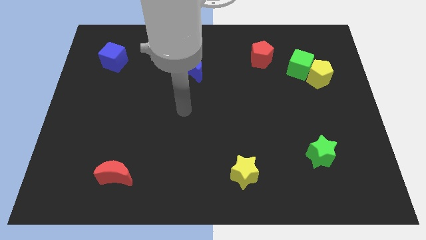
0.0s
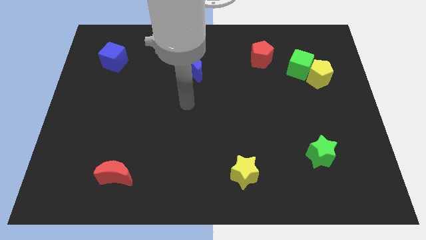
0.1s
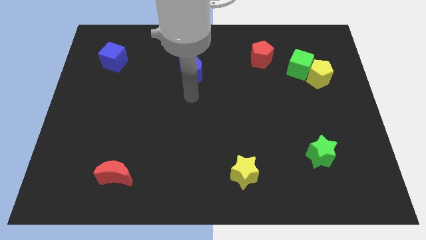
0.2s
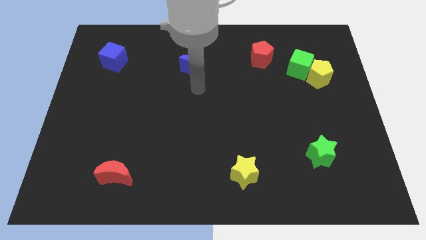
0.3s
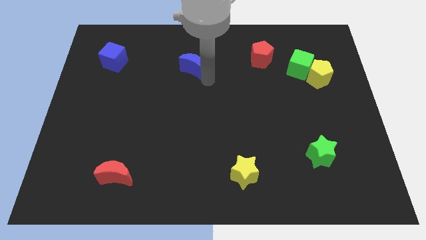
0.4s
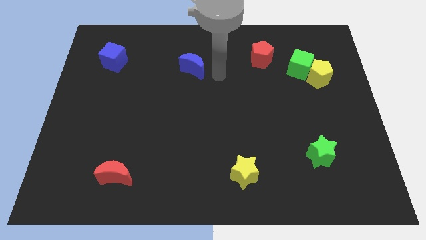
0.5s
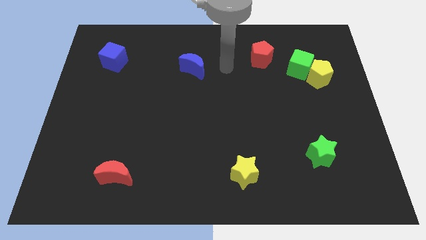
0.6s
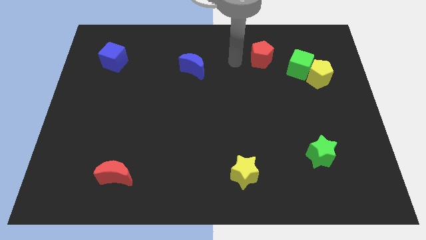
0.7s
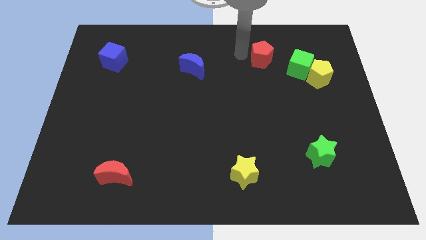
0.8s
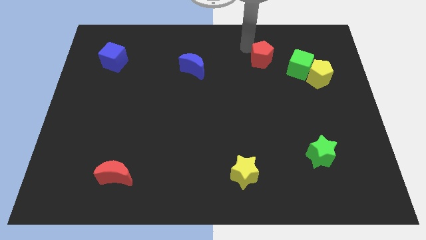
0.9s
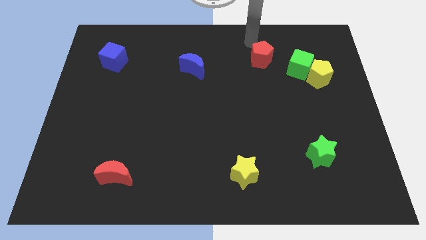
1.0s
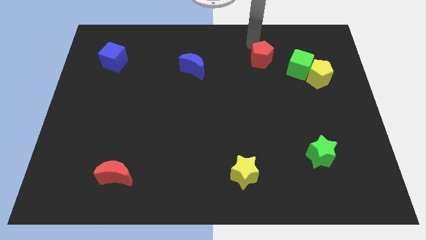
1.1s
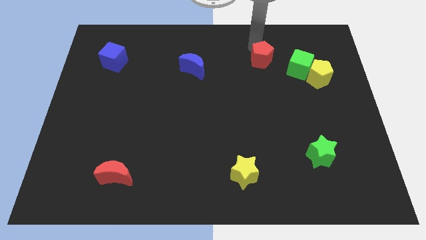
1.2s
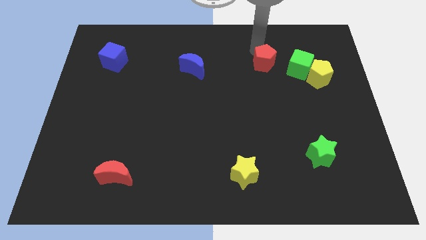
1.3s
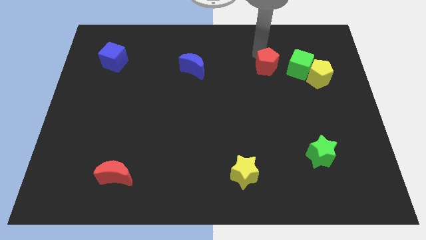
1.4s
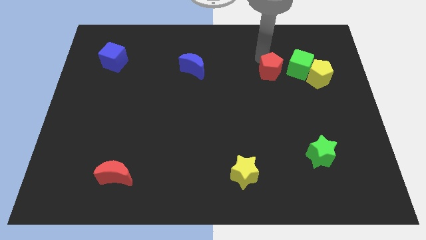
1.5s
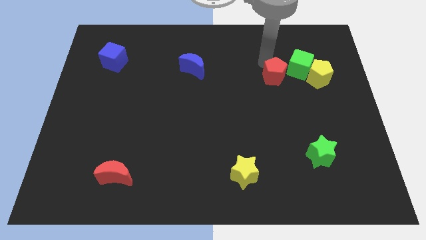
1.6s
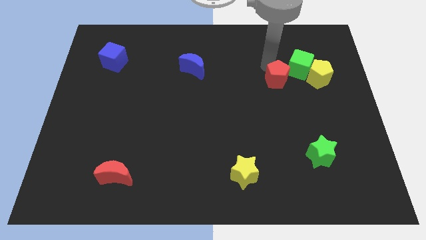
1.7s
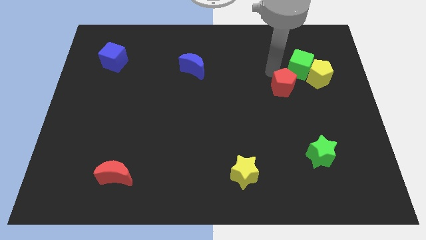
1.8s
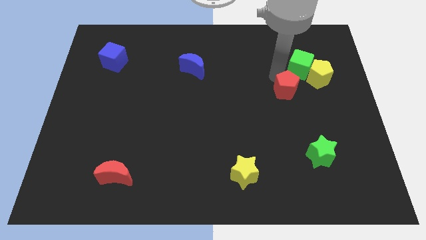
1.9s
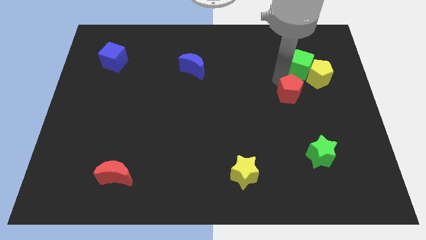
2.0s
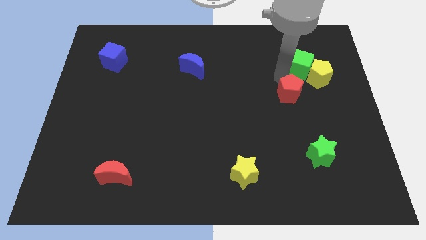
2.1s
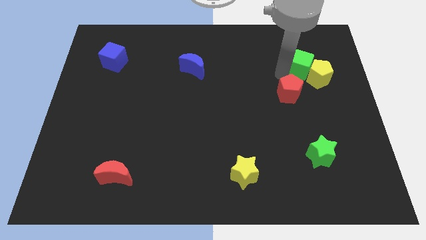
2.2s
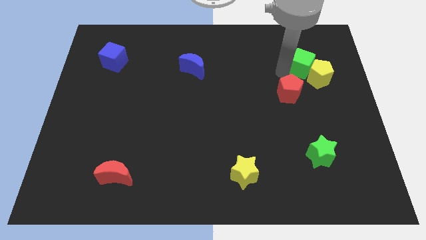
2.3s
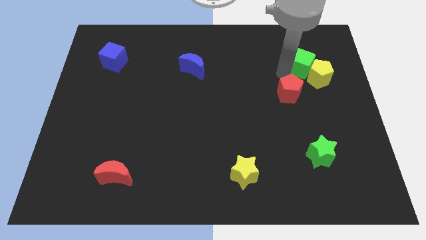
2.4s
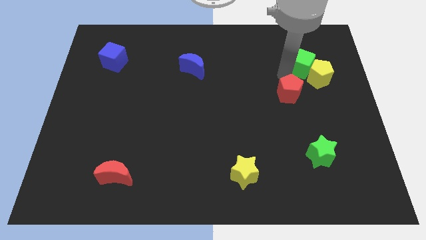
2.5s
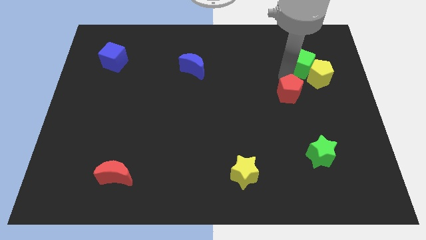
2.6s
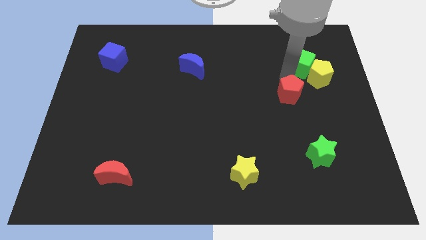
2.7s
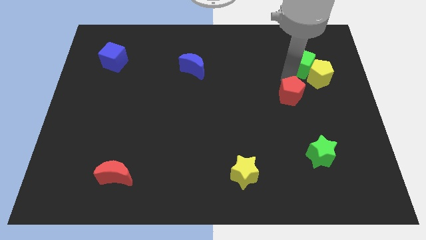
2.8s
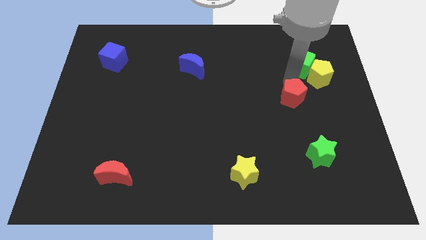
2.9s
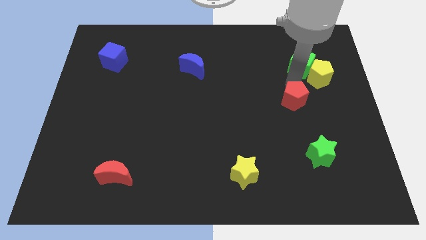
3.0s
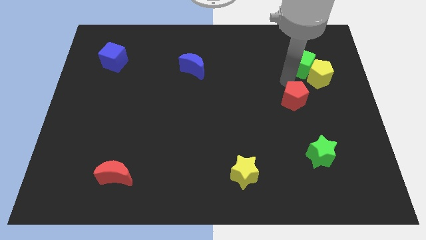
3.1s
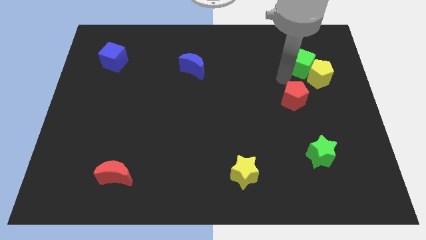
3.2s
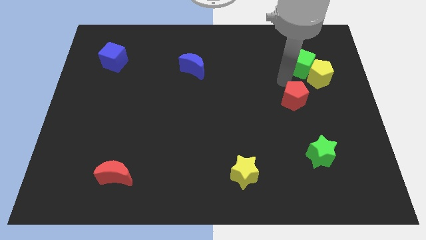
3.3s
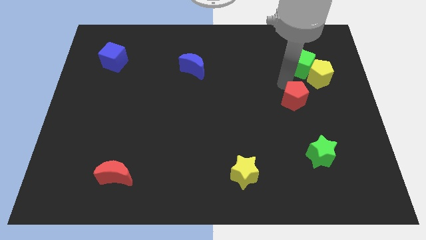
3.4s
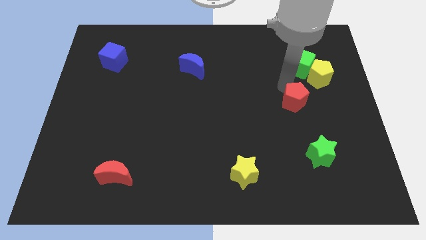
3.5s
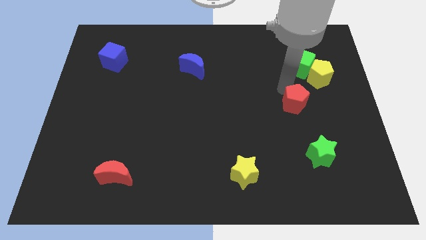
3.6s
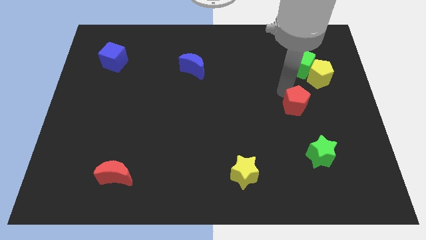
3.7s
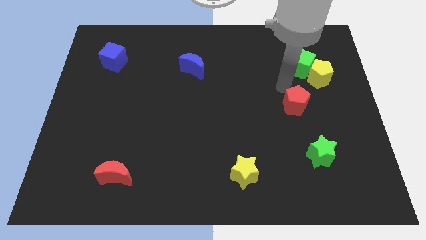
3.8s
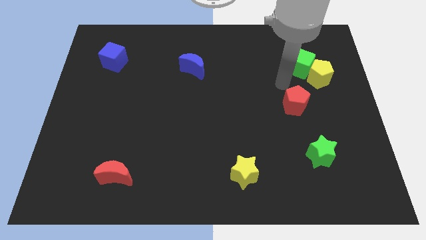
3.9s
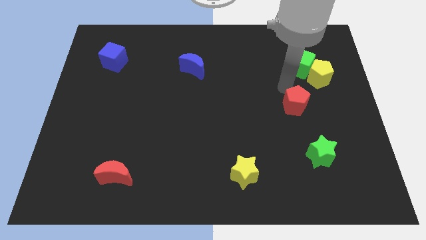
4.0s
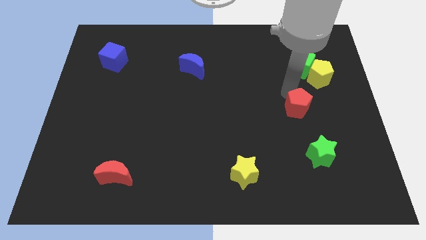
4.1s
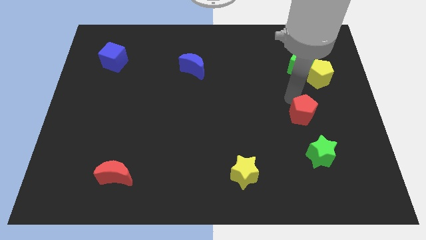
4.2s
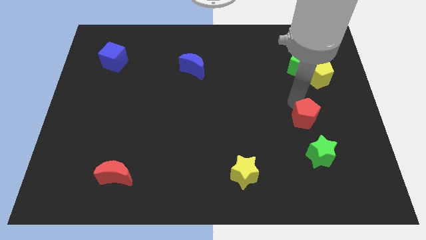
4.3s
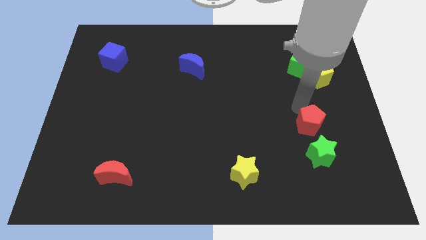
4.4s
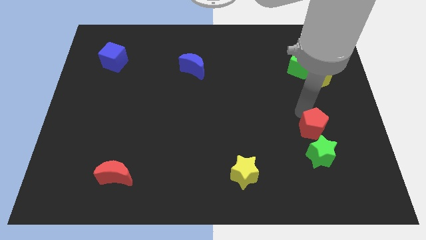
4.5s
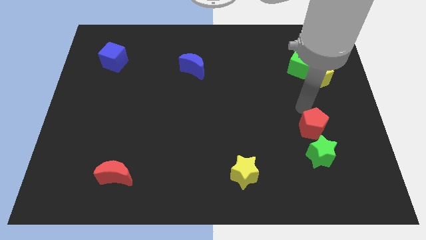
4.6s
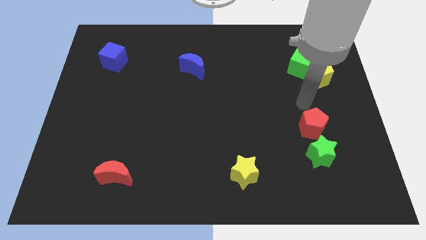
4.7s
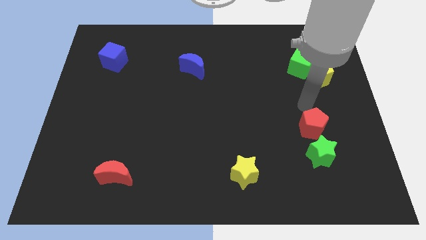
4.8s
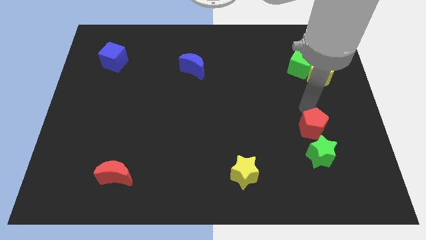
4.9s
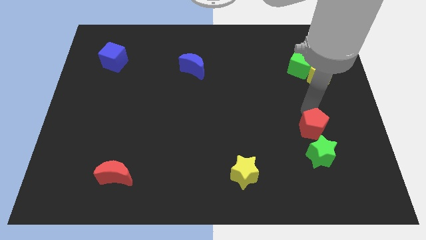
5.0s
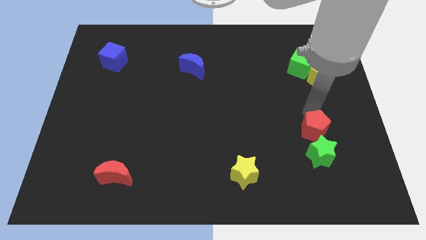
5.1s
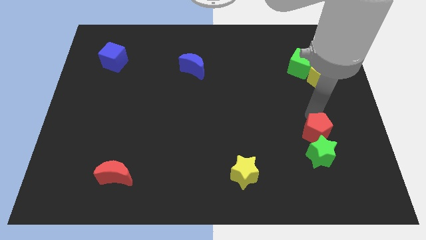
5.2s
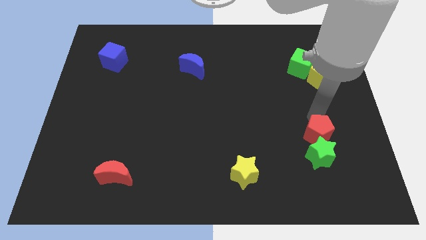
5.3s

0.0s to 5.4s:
move the red pentagon close to the green star

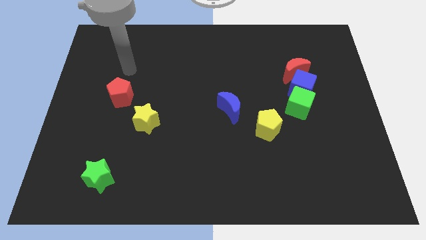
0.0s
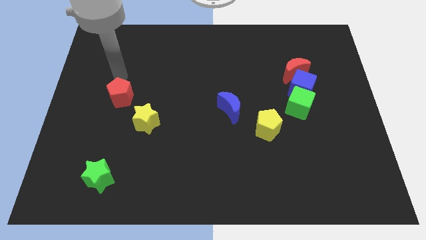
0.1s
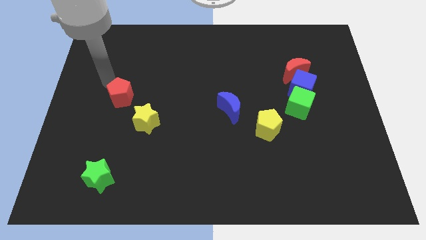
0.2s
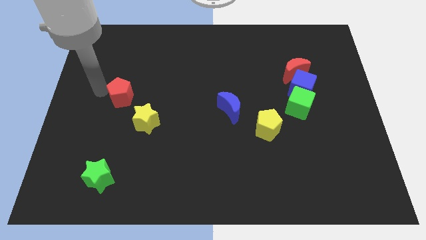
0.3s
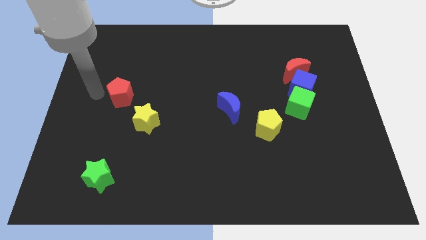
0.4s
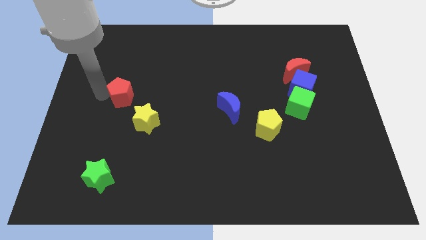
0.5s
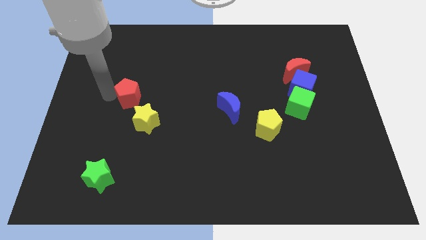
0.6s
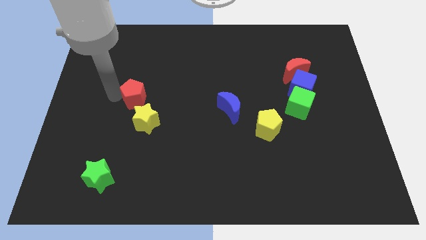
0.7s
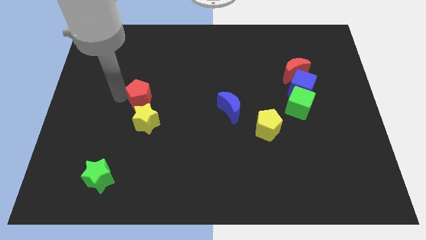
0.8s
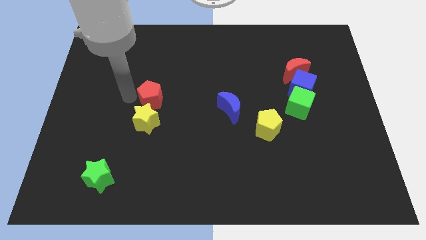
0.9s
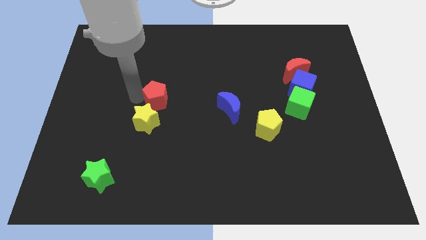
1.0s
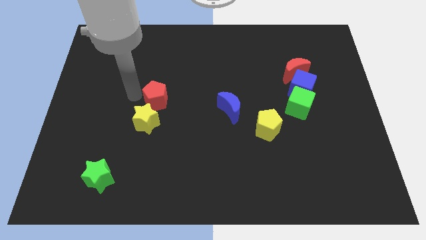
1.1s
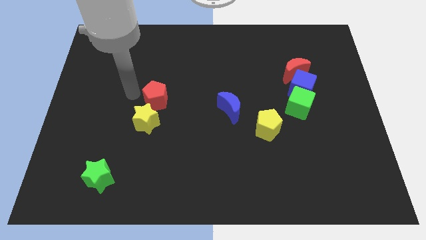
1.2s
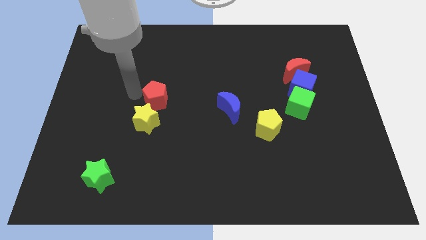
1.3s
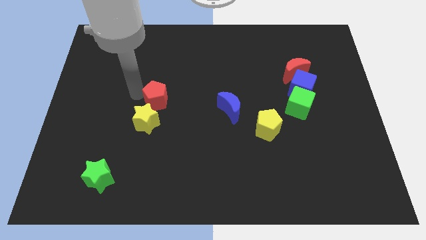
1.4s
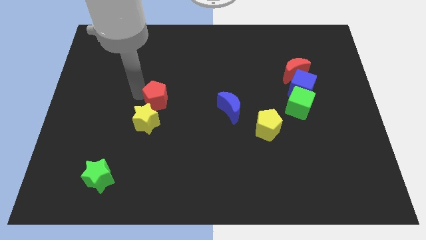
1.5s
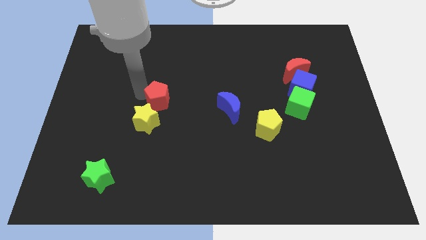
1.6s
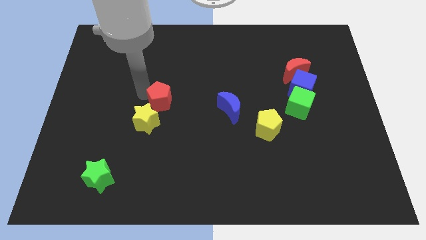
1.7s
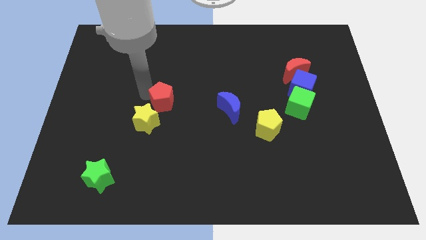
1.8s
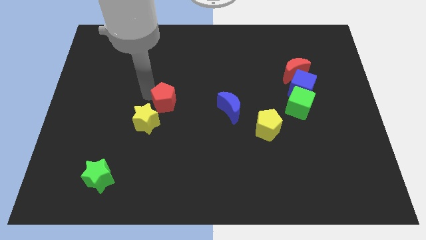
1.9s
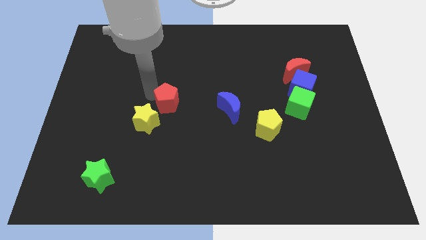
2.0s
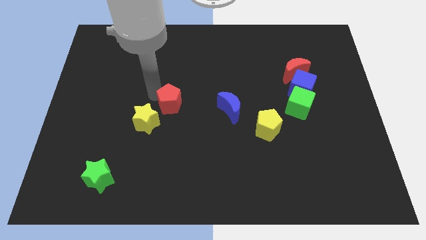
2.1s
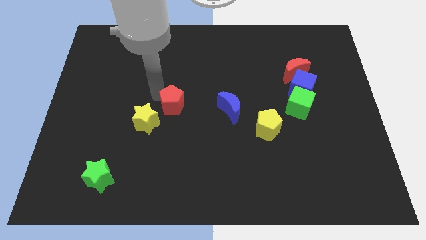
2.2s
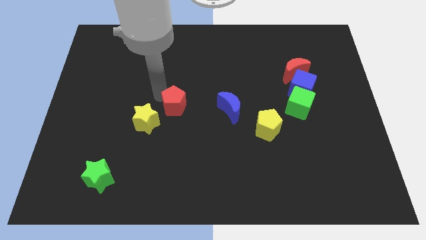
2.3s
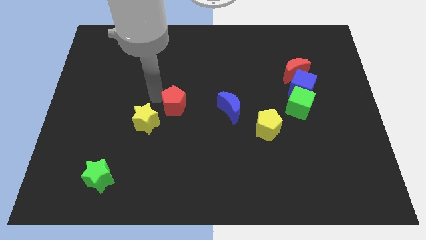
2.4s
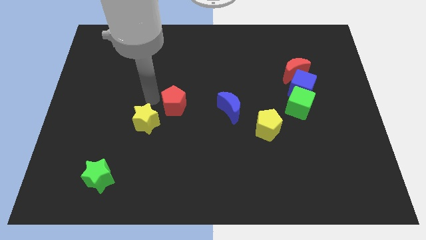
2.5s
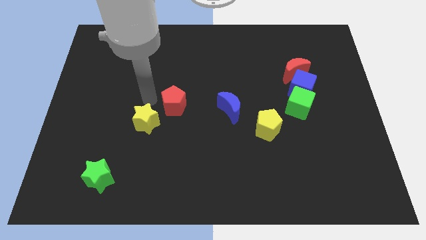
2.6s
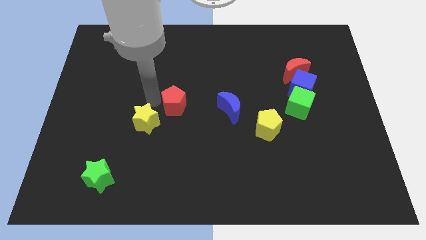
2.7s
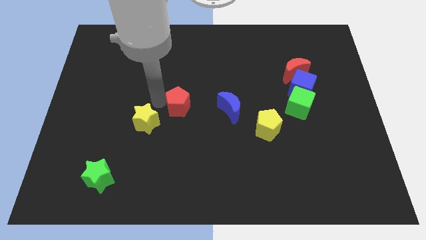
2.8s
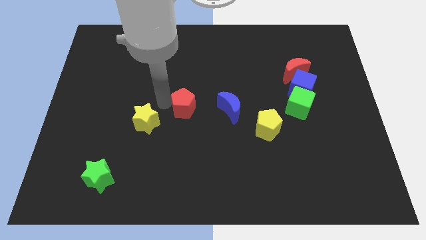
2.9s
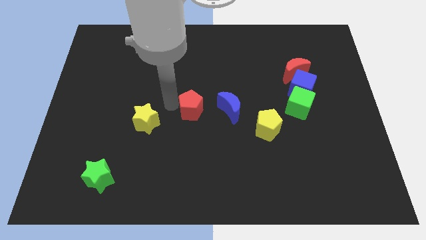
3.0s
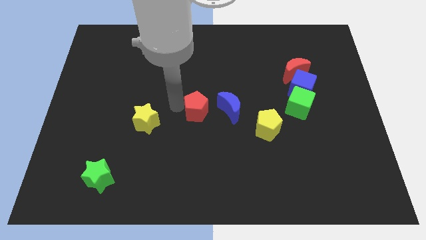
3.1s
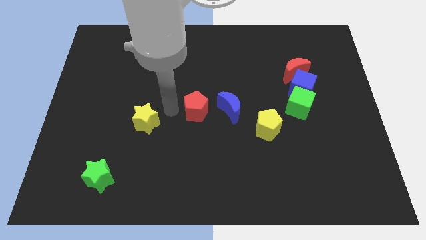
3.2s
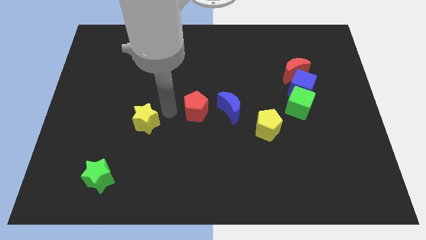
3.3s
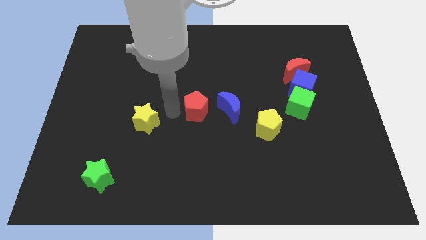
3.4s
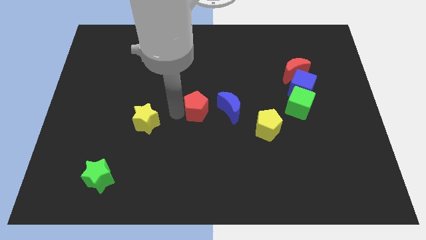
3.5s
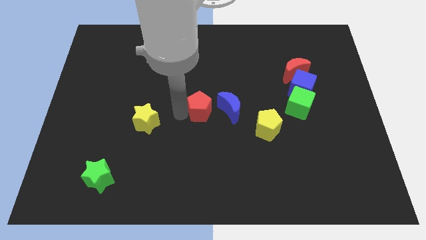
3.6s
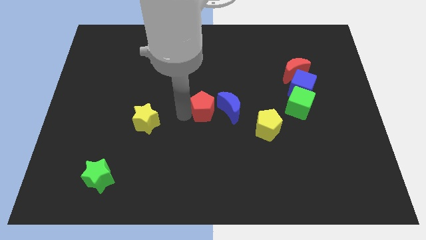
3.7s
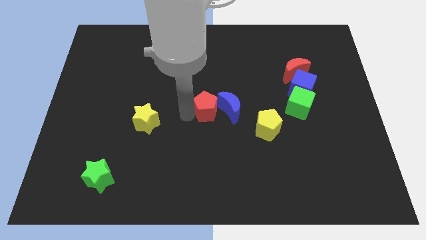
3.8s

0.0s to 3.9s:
move the red pentagon close to the blue moon
